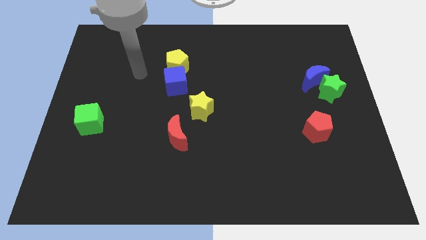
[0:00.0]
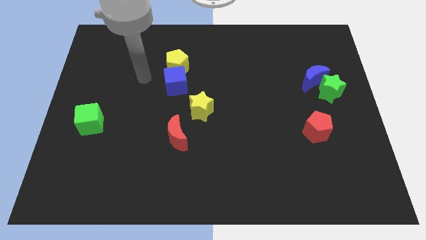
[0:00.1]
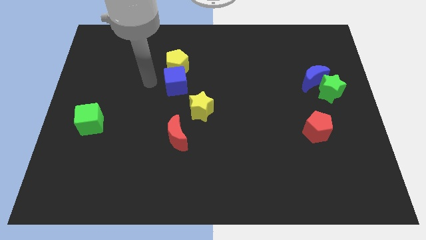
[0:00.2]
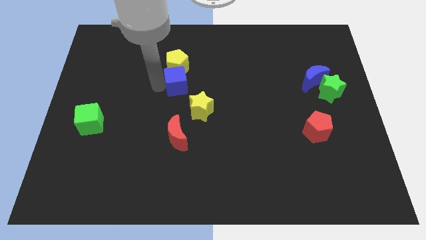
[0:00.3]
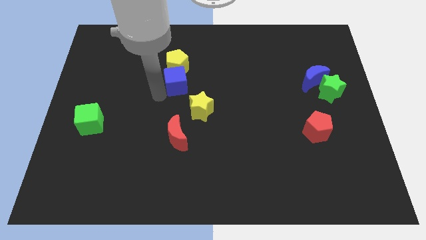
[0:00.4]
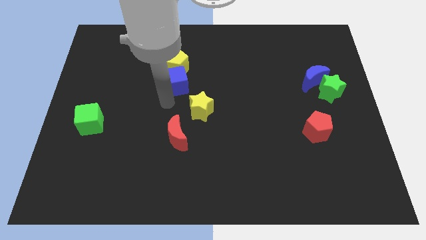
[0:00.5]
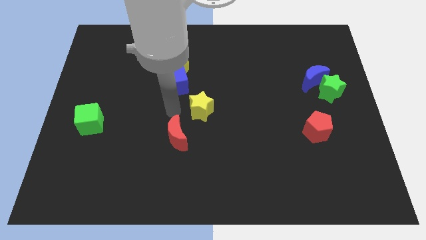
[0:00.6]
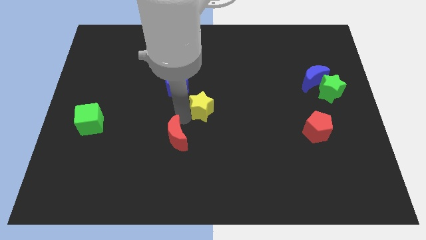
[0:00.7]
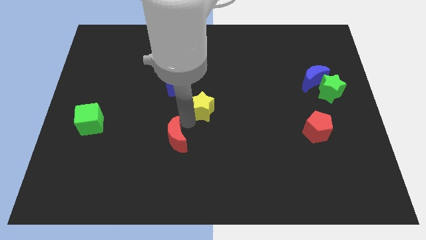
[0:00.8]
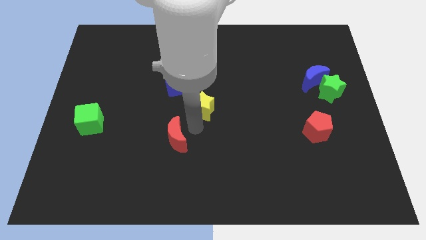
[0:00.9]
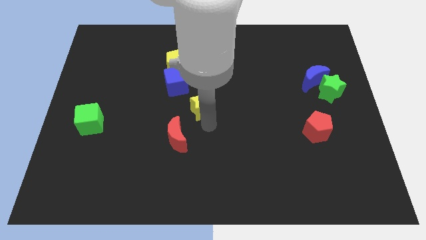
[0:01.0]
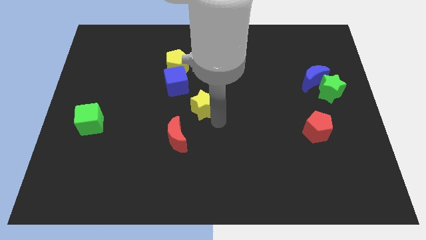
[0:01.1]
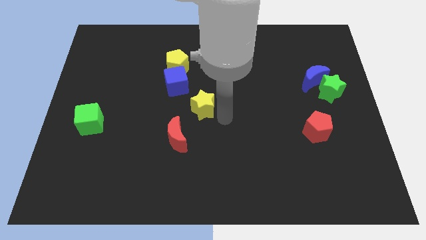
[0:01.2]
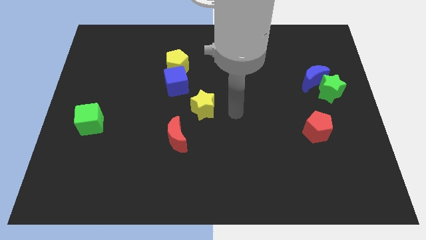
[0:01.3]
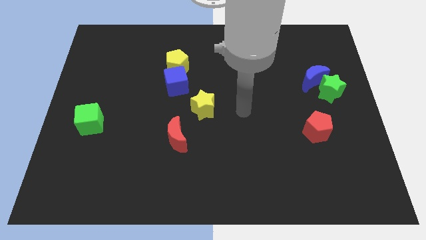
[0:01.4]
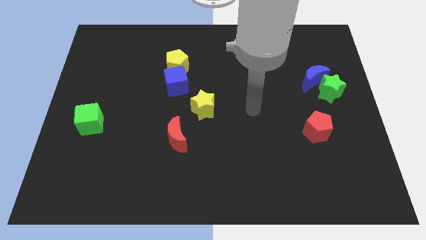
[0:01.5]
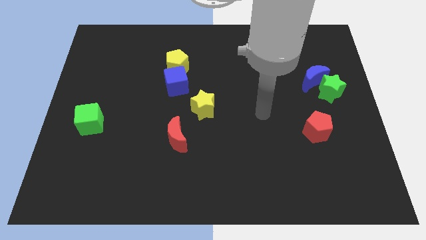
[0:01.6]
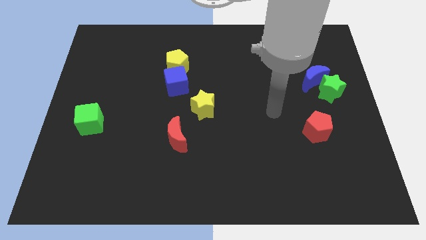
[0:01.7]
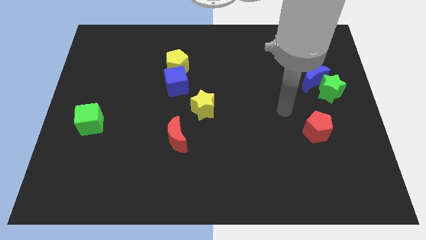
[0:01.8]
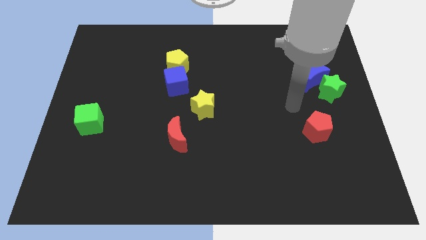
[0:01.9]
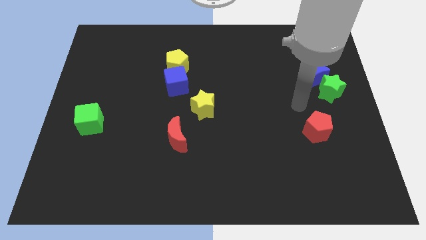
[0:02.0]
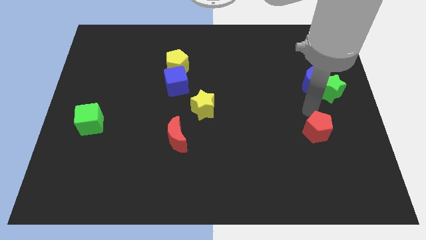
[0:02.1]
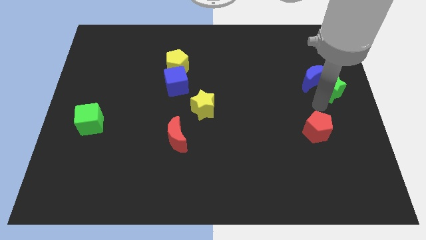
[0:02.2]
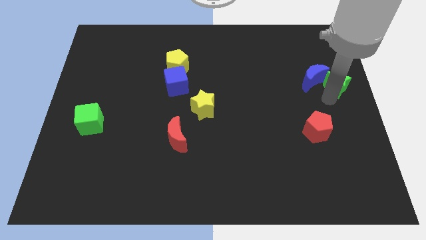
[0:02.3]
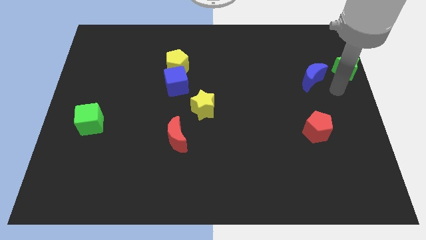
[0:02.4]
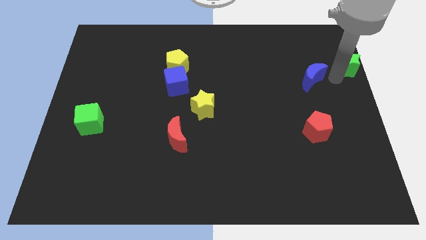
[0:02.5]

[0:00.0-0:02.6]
move the blue moon away from the green star

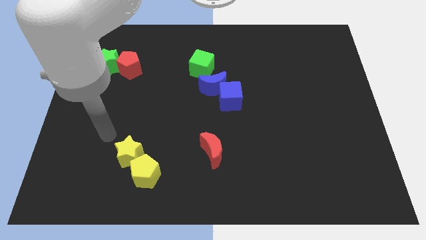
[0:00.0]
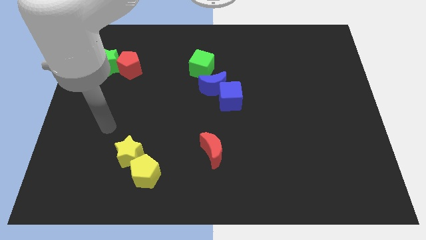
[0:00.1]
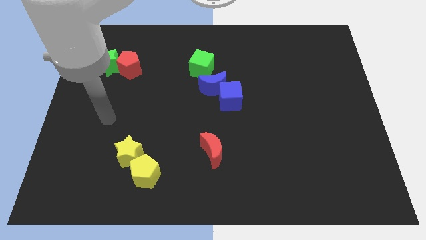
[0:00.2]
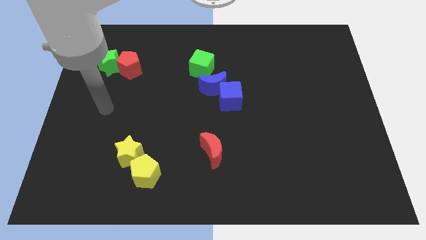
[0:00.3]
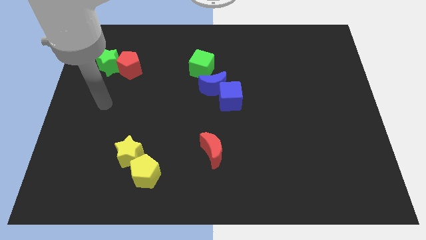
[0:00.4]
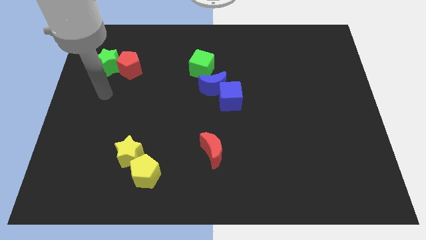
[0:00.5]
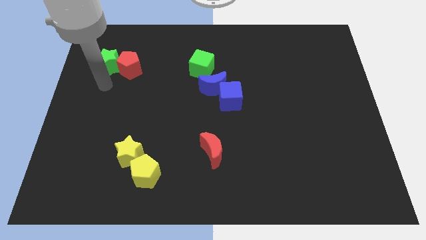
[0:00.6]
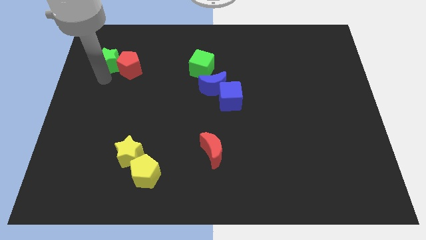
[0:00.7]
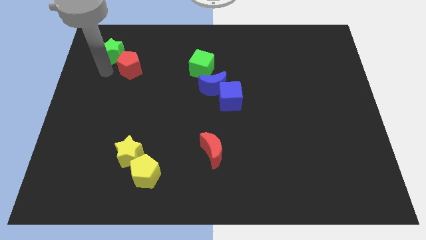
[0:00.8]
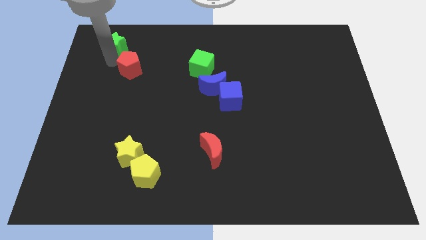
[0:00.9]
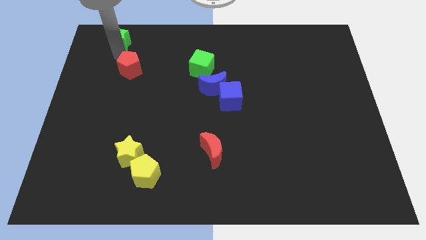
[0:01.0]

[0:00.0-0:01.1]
separate the red pentagon from the green star

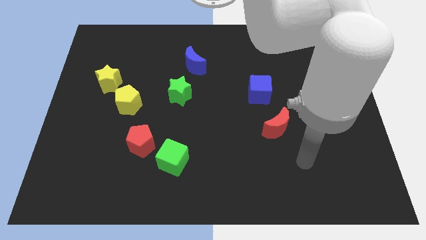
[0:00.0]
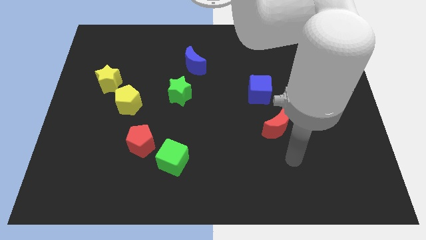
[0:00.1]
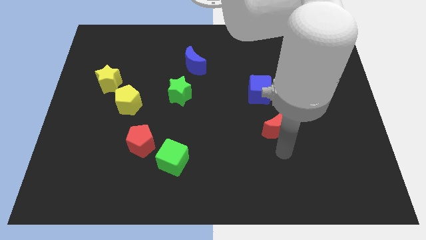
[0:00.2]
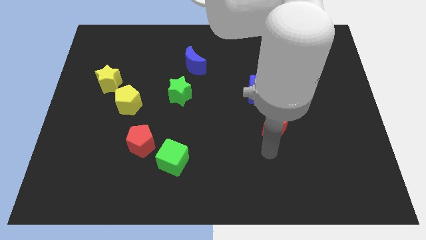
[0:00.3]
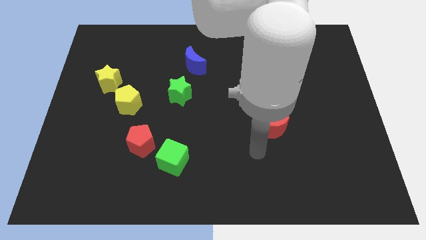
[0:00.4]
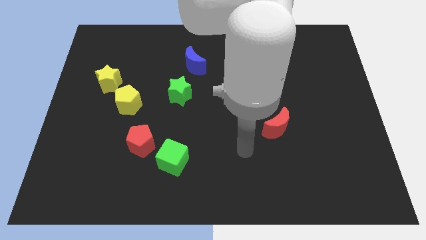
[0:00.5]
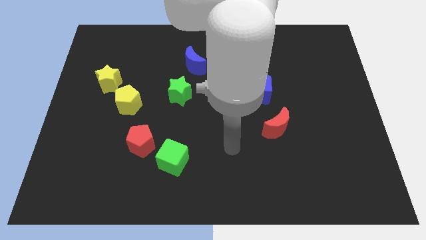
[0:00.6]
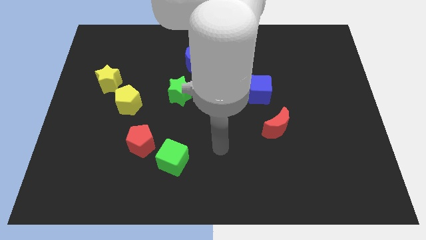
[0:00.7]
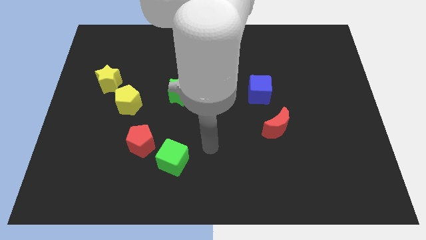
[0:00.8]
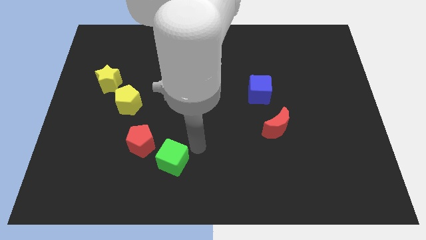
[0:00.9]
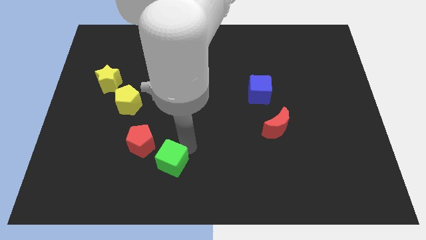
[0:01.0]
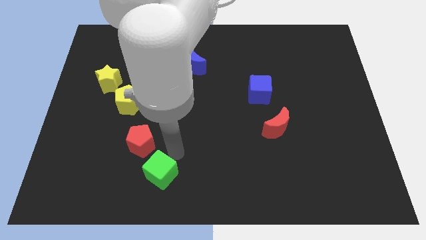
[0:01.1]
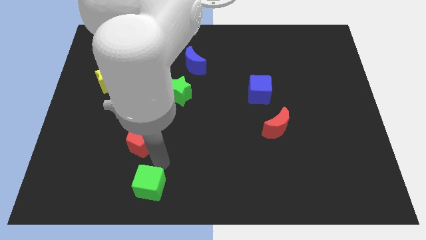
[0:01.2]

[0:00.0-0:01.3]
pull the red pentagon apart from the green cube

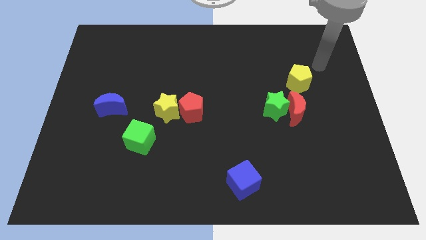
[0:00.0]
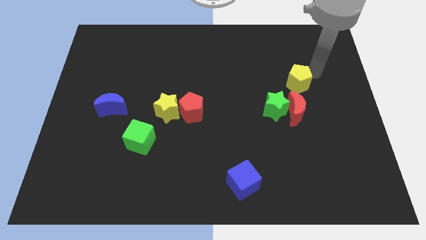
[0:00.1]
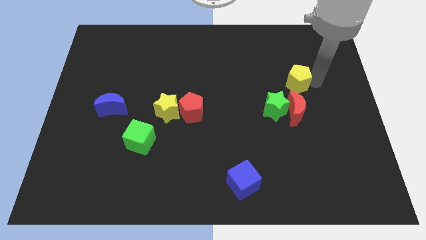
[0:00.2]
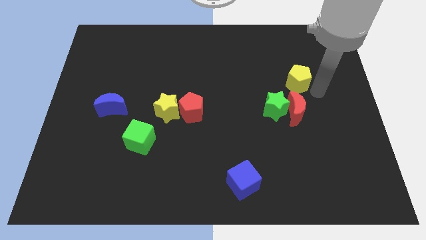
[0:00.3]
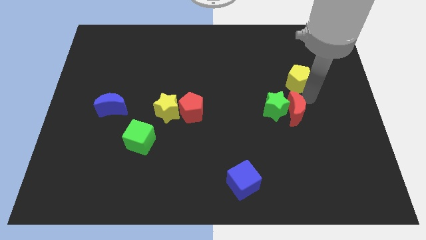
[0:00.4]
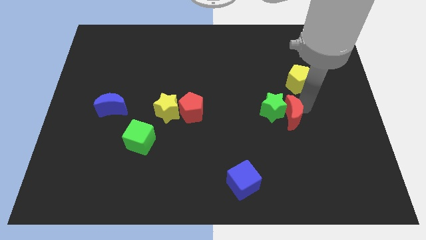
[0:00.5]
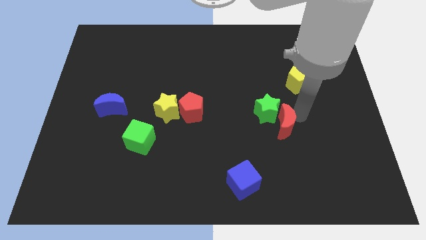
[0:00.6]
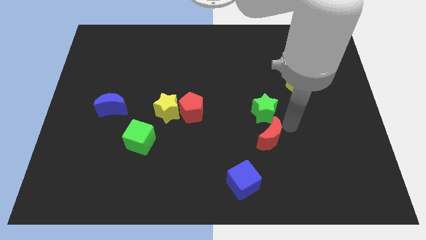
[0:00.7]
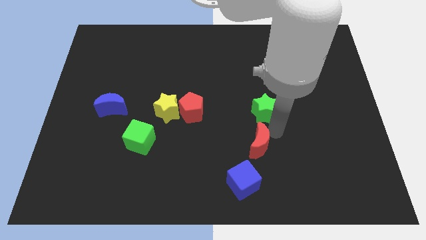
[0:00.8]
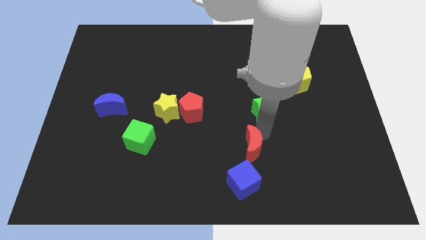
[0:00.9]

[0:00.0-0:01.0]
separate the green star from the red moon

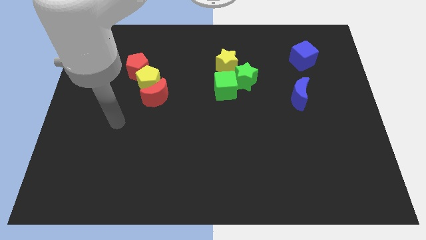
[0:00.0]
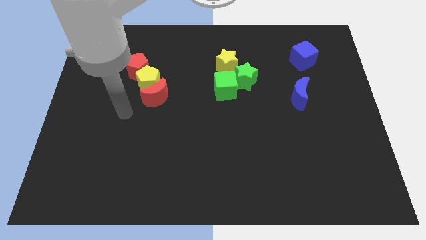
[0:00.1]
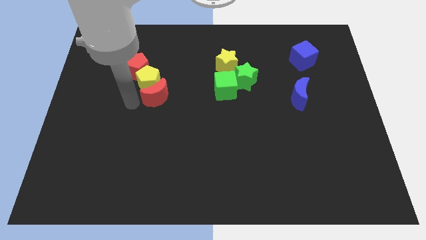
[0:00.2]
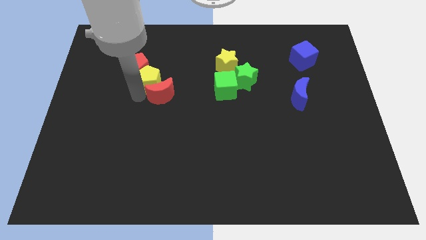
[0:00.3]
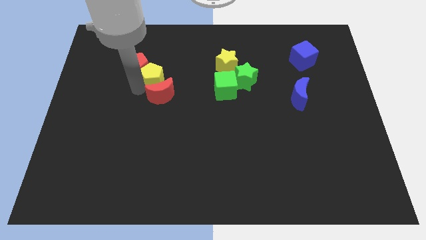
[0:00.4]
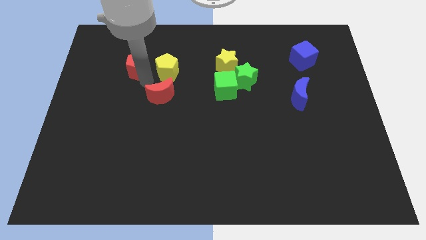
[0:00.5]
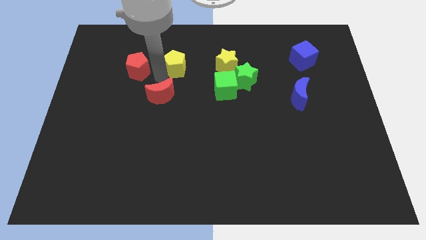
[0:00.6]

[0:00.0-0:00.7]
move the red moon away from the yellow pentagon

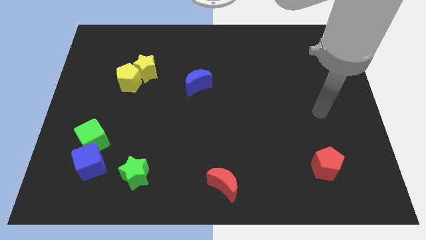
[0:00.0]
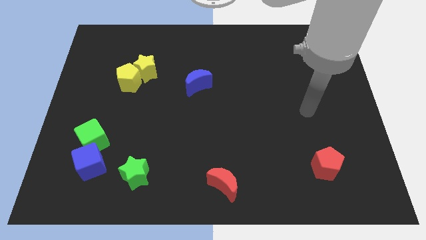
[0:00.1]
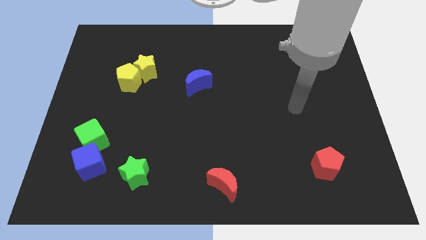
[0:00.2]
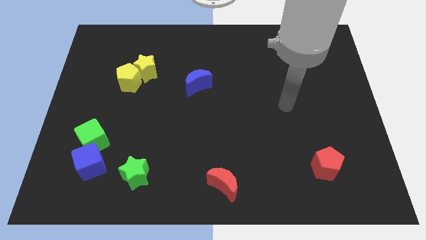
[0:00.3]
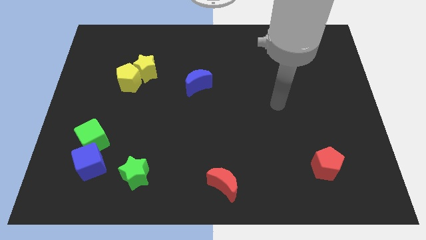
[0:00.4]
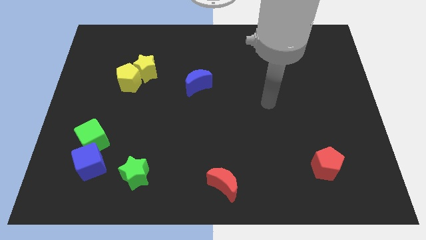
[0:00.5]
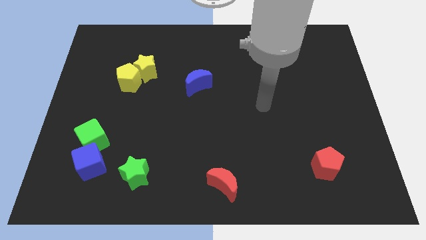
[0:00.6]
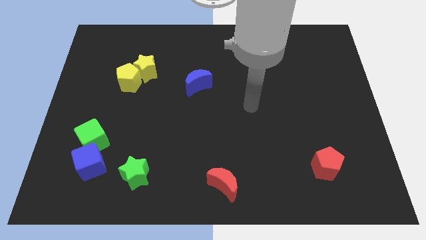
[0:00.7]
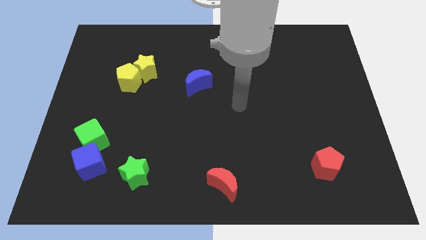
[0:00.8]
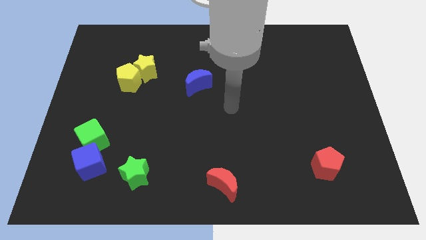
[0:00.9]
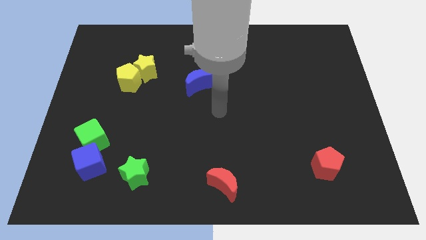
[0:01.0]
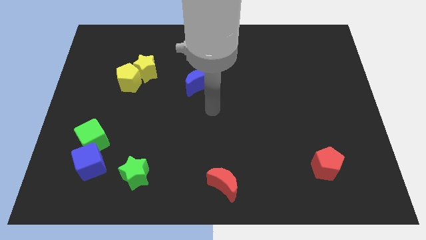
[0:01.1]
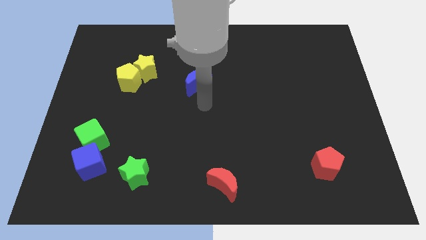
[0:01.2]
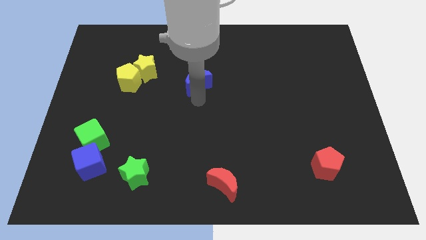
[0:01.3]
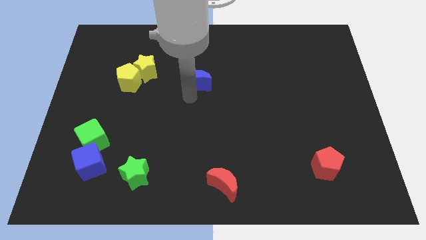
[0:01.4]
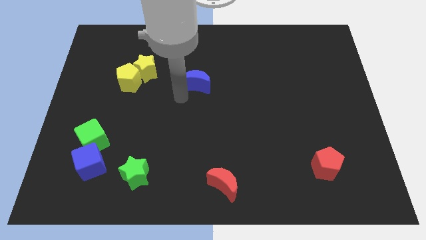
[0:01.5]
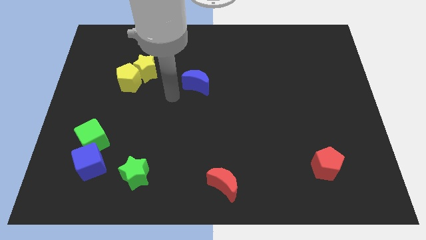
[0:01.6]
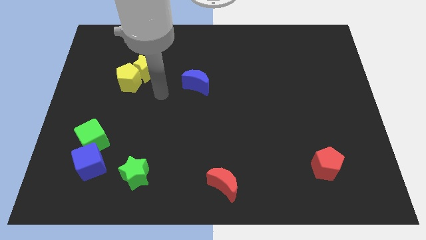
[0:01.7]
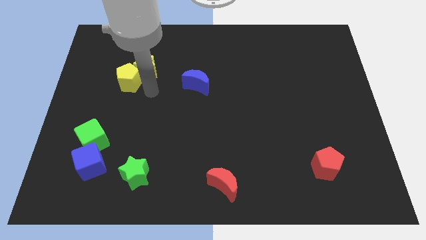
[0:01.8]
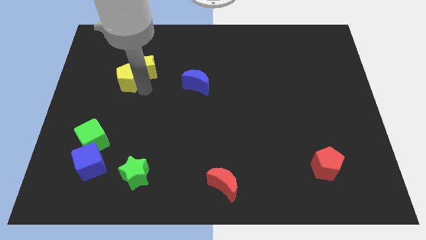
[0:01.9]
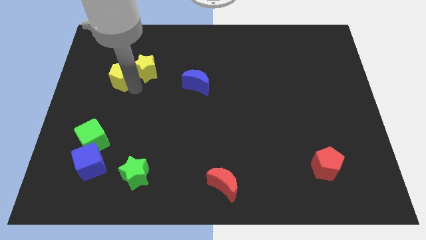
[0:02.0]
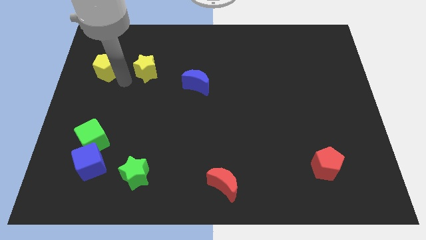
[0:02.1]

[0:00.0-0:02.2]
separate the yellow star from the yellow pentagon

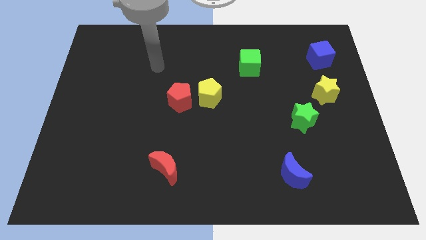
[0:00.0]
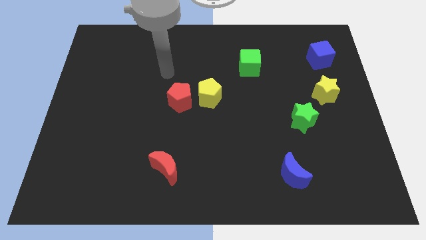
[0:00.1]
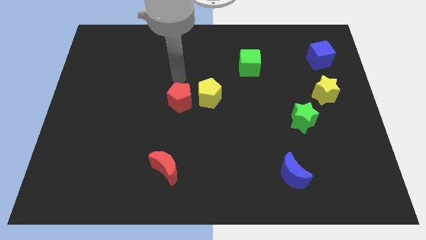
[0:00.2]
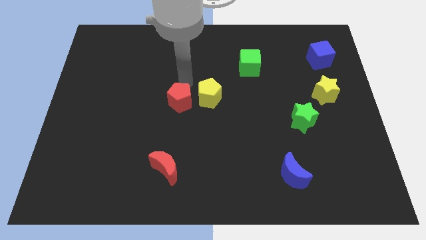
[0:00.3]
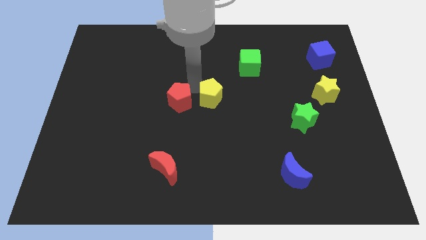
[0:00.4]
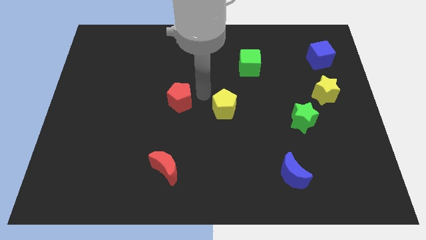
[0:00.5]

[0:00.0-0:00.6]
separate the red pentagon from the yellow pentagon
